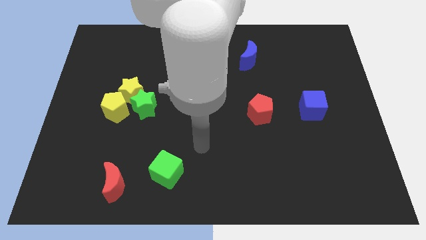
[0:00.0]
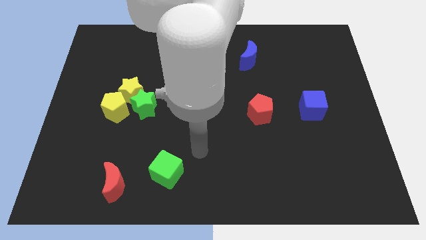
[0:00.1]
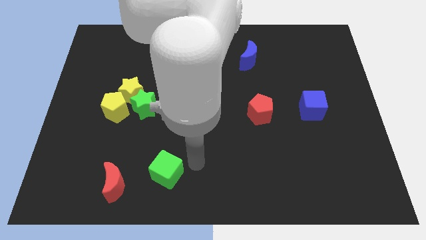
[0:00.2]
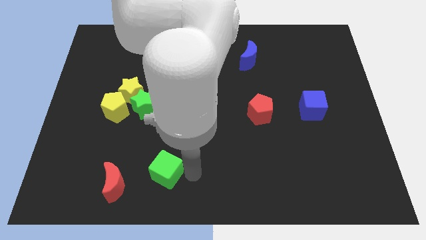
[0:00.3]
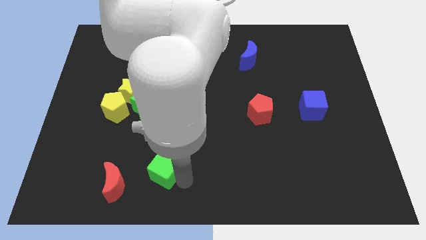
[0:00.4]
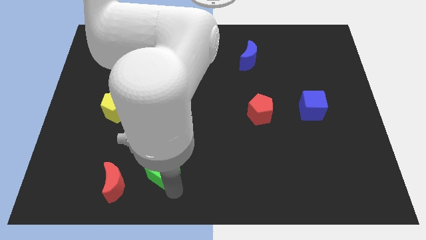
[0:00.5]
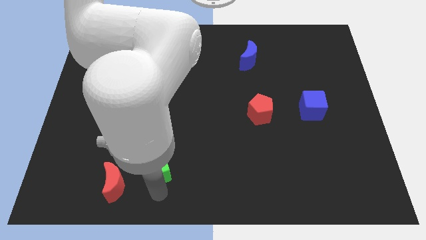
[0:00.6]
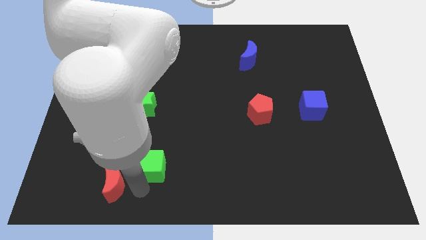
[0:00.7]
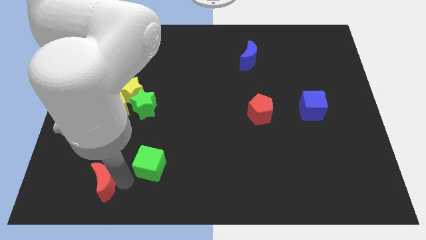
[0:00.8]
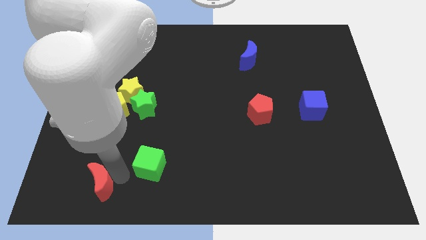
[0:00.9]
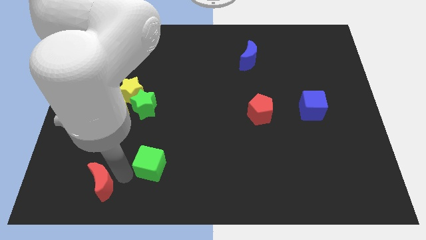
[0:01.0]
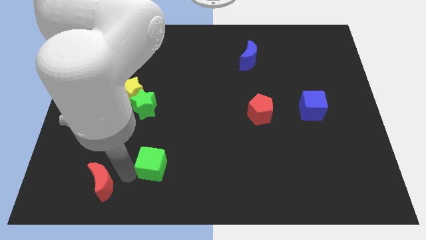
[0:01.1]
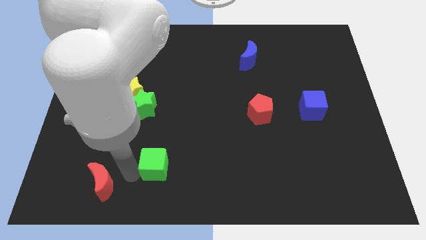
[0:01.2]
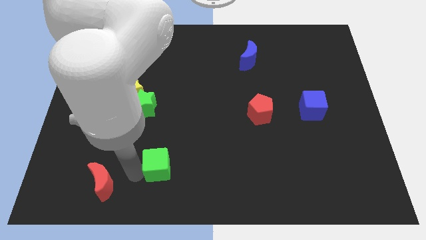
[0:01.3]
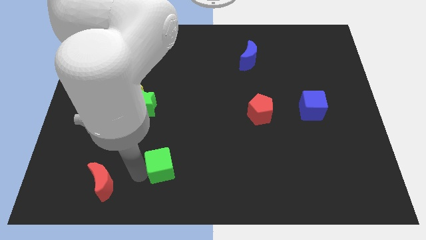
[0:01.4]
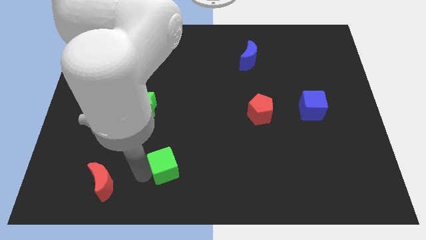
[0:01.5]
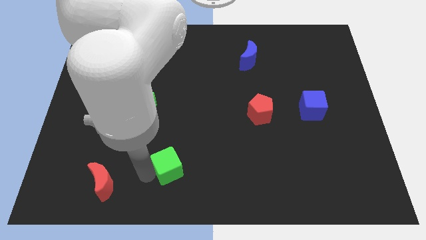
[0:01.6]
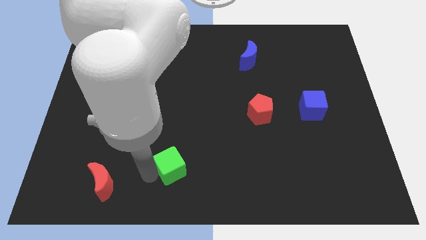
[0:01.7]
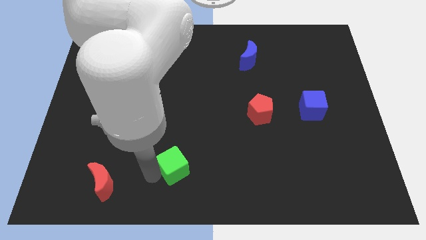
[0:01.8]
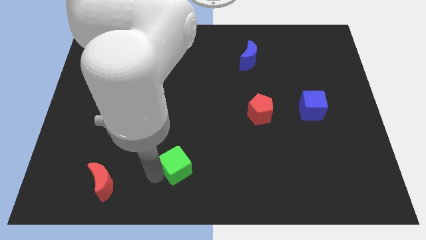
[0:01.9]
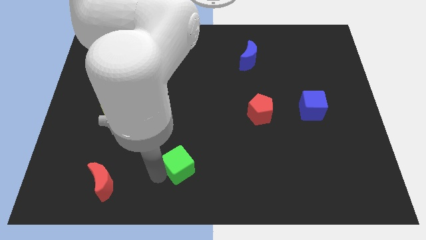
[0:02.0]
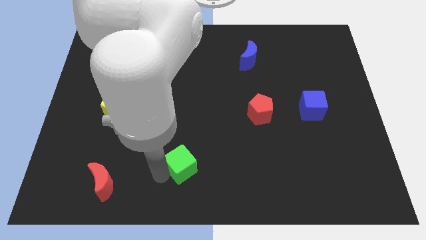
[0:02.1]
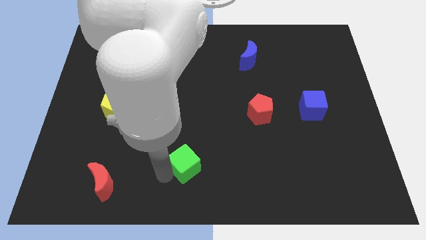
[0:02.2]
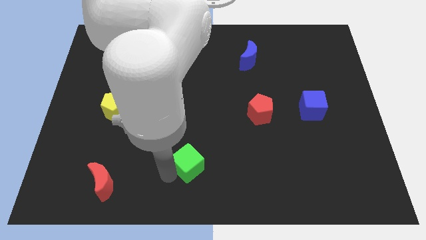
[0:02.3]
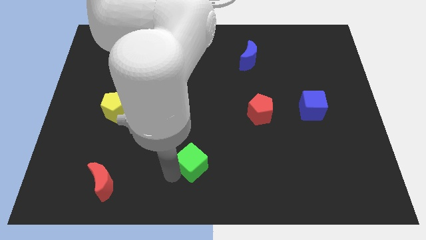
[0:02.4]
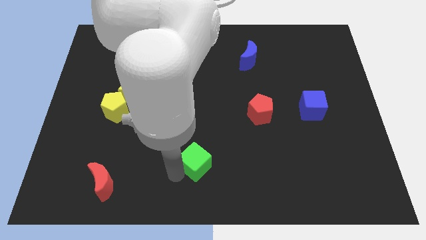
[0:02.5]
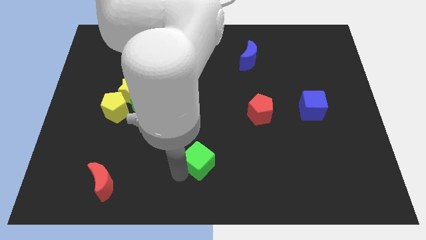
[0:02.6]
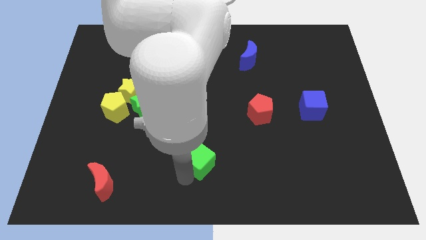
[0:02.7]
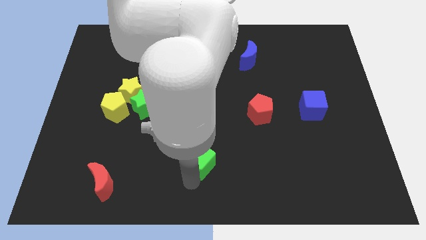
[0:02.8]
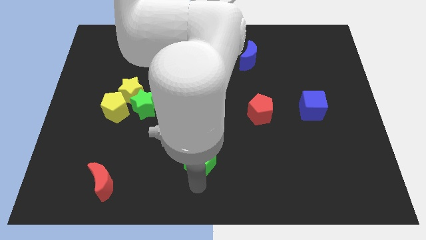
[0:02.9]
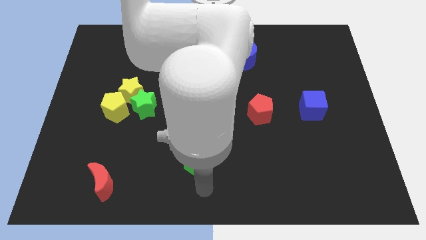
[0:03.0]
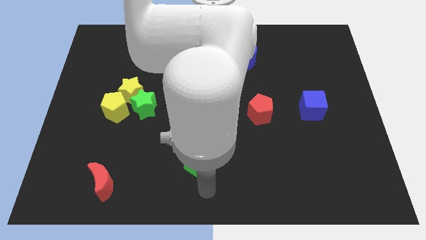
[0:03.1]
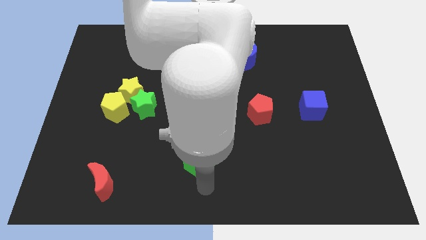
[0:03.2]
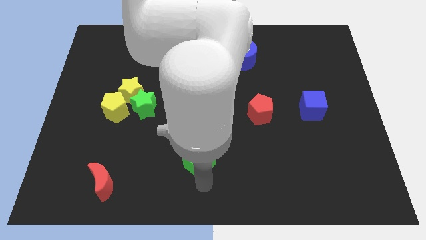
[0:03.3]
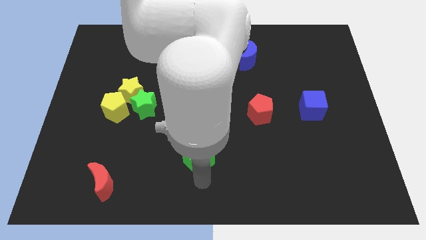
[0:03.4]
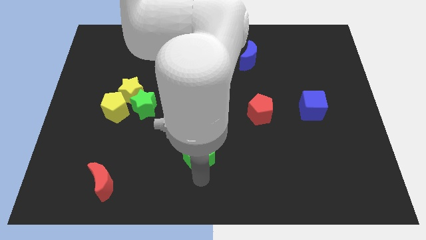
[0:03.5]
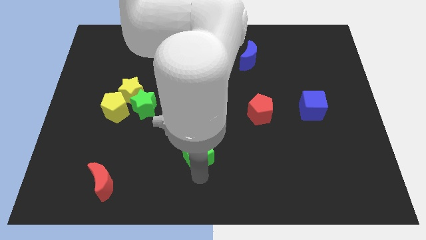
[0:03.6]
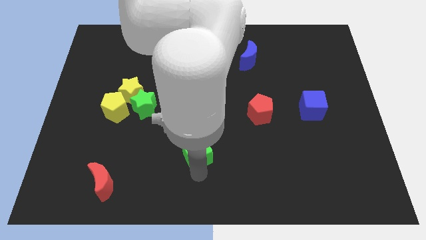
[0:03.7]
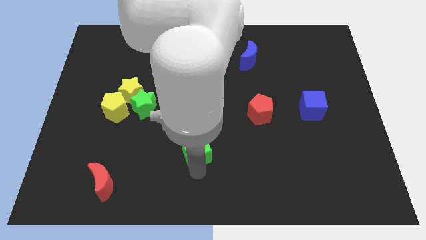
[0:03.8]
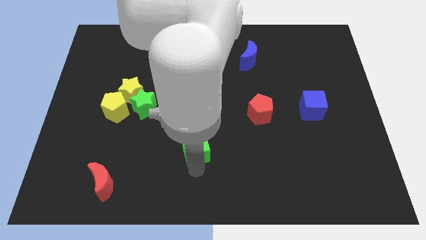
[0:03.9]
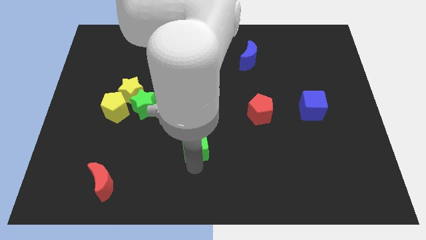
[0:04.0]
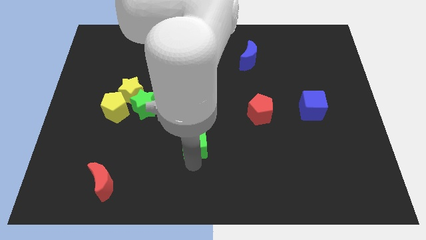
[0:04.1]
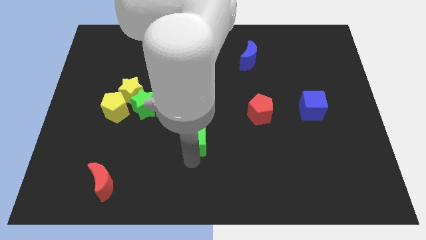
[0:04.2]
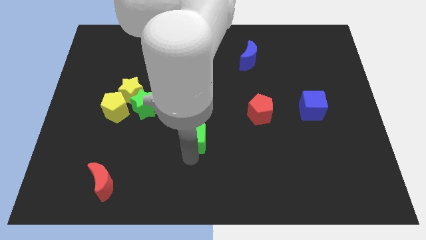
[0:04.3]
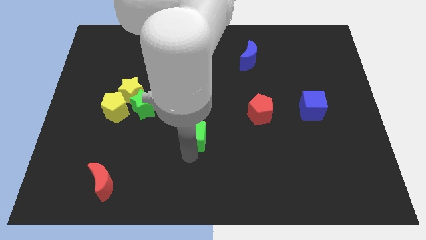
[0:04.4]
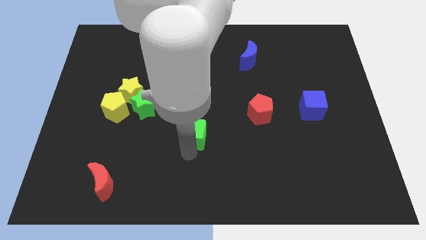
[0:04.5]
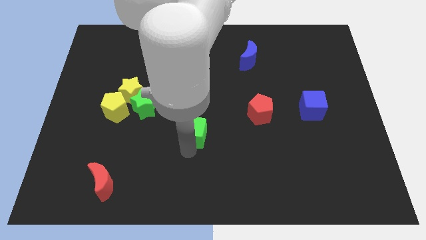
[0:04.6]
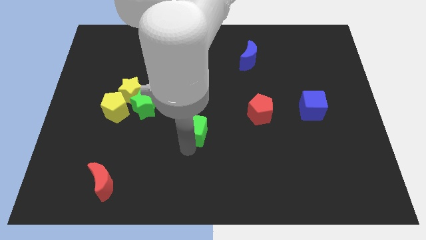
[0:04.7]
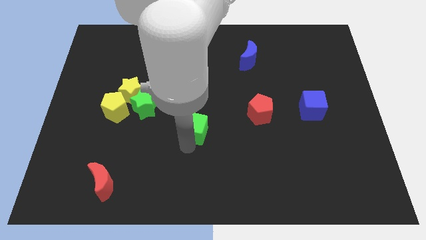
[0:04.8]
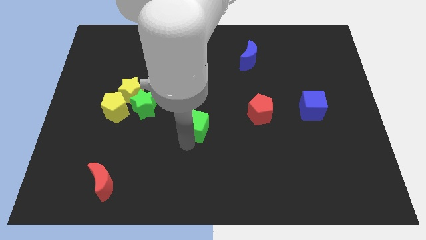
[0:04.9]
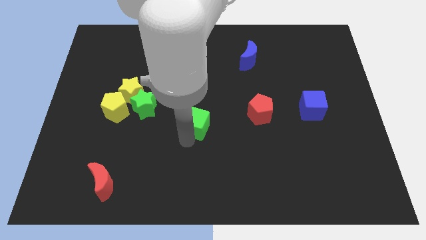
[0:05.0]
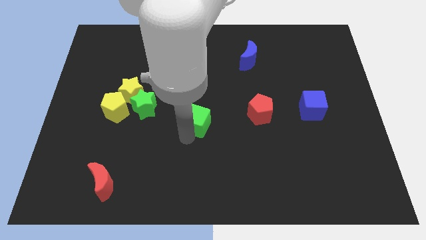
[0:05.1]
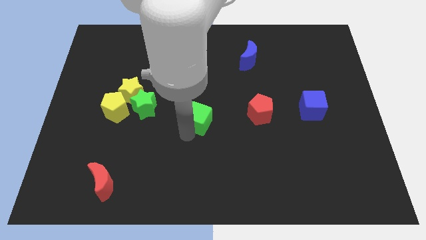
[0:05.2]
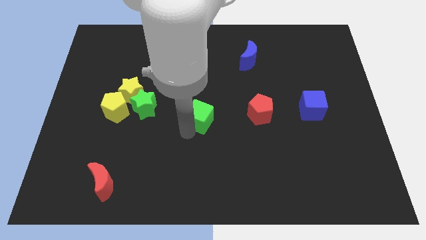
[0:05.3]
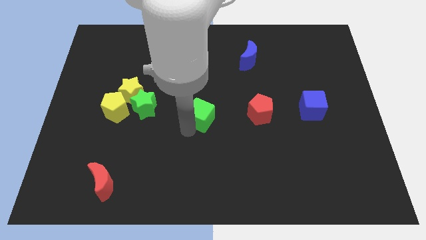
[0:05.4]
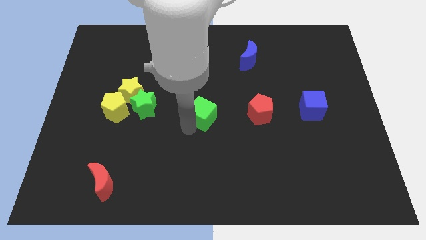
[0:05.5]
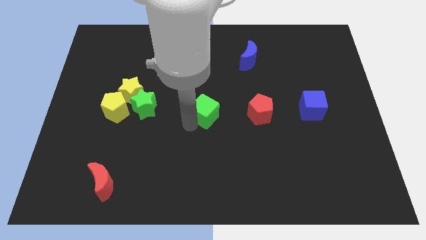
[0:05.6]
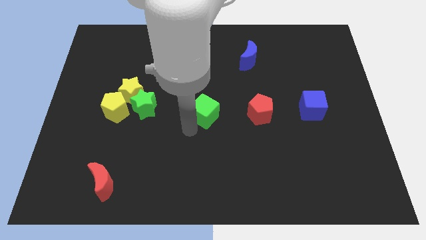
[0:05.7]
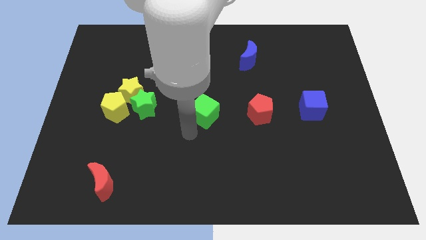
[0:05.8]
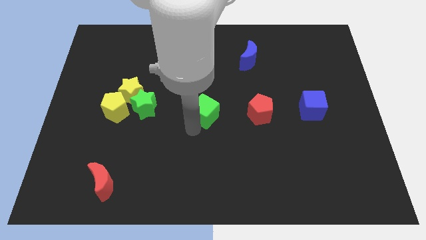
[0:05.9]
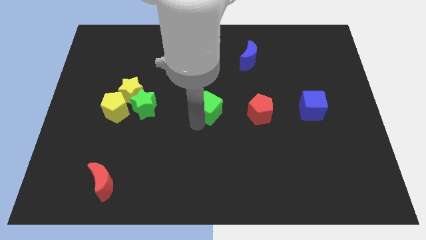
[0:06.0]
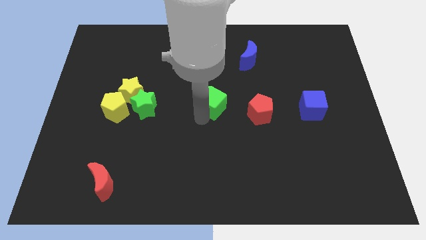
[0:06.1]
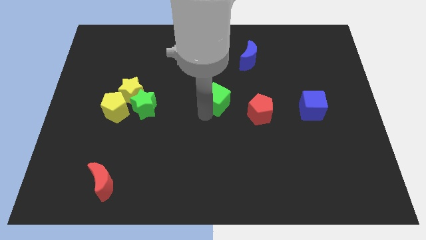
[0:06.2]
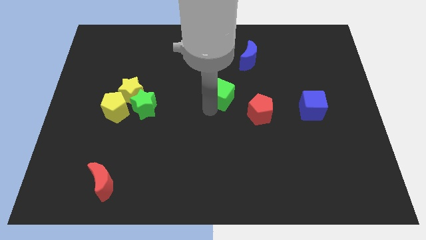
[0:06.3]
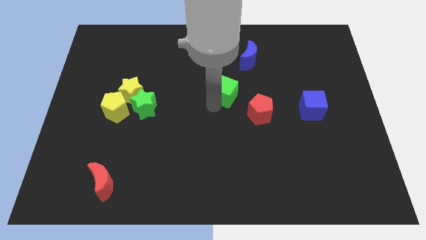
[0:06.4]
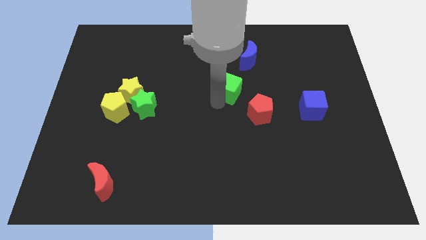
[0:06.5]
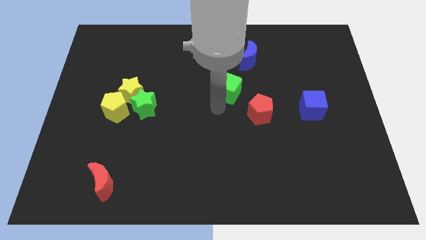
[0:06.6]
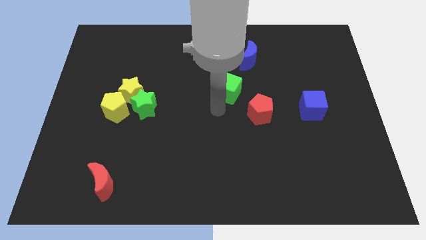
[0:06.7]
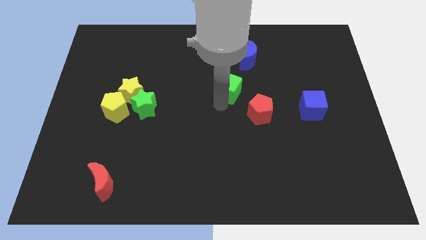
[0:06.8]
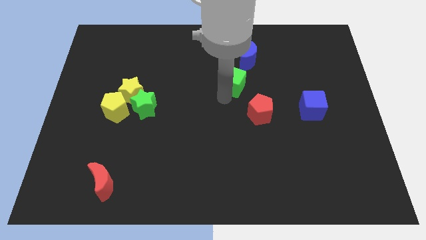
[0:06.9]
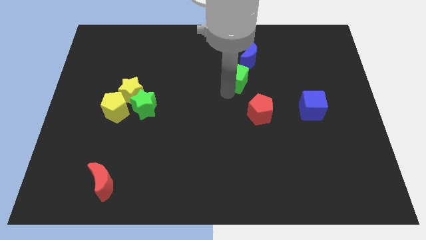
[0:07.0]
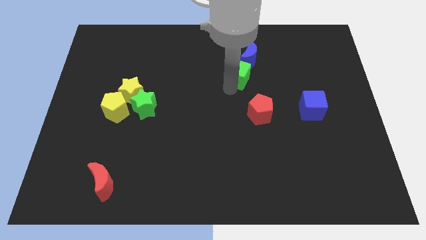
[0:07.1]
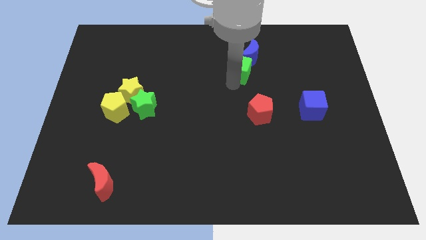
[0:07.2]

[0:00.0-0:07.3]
move the green cube close to the blue moon
